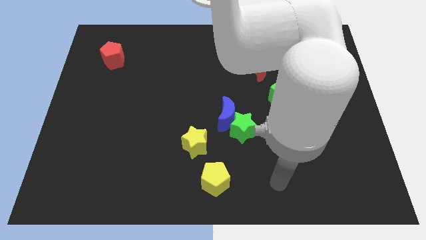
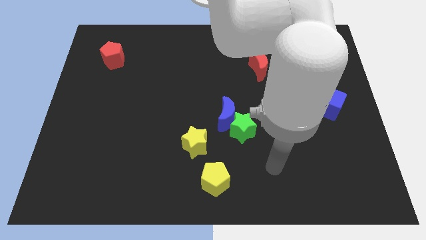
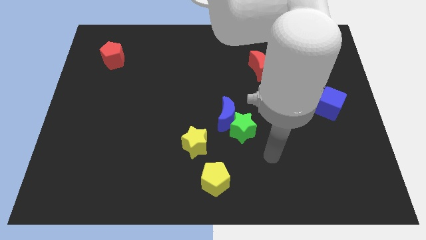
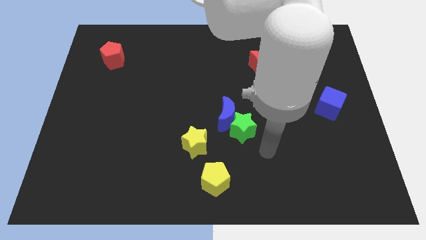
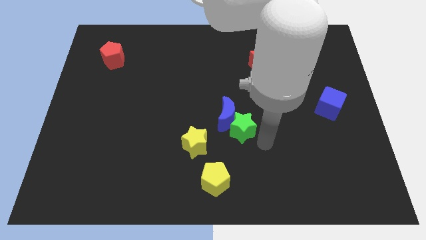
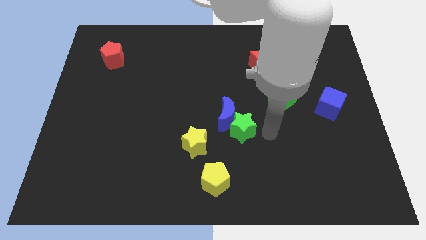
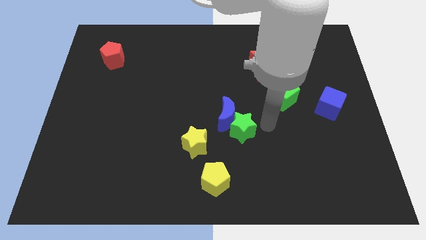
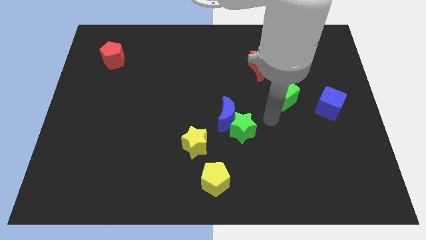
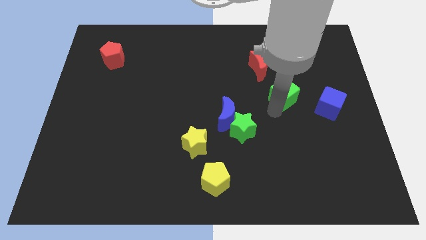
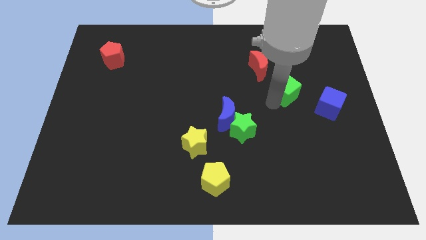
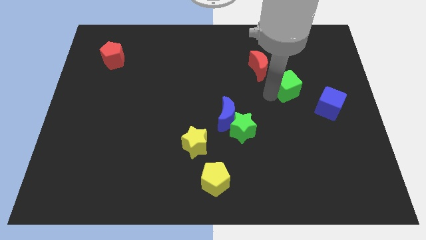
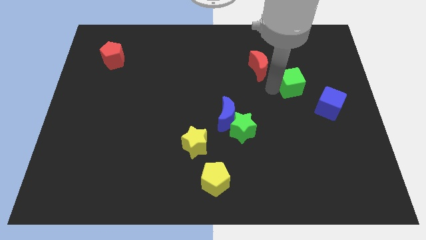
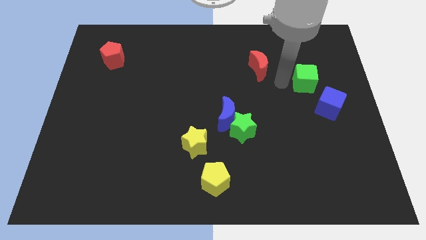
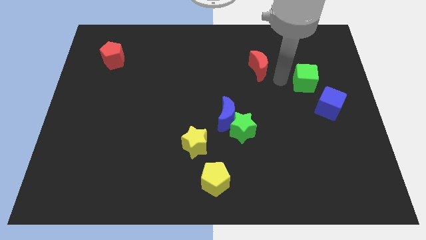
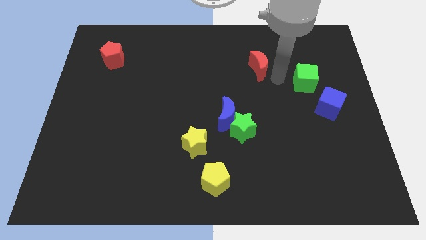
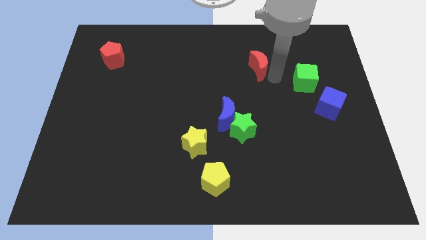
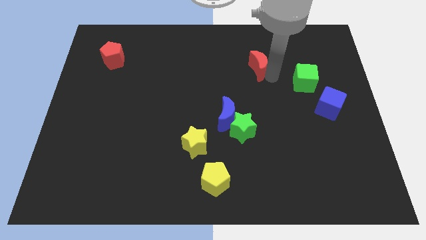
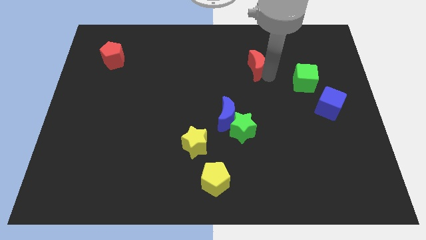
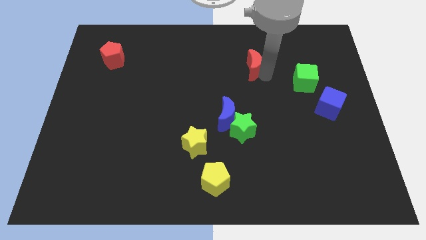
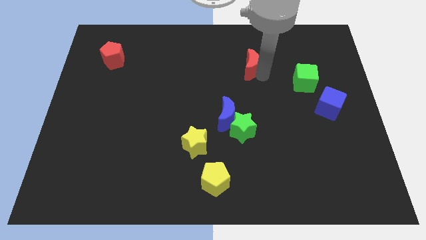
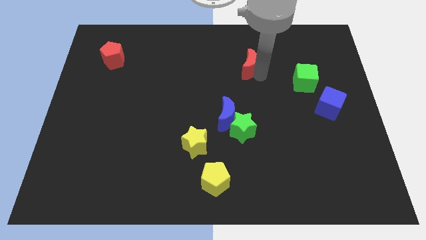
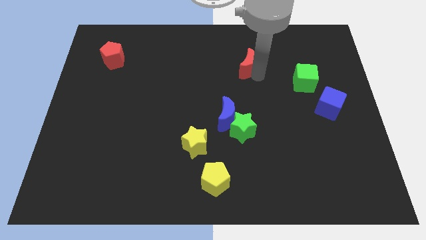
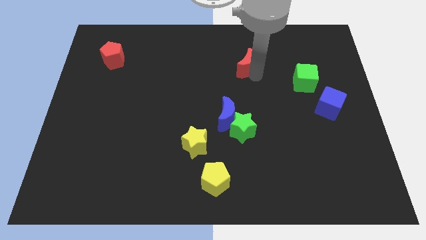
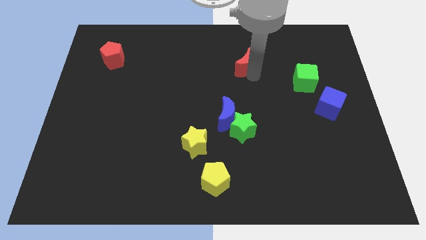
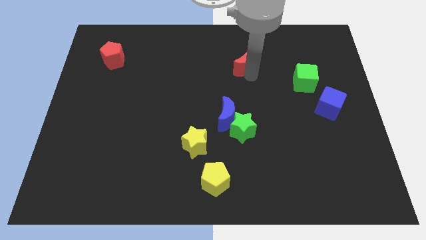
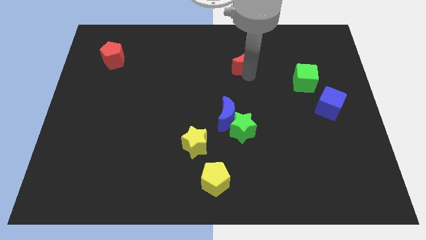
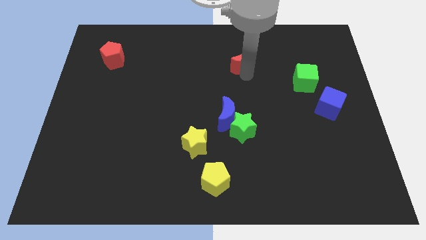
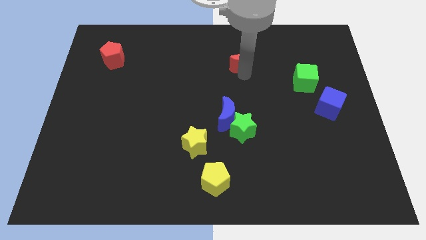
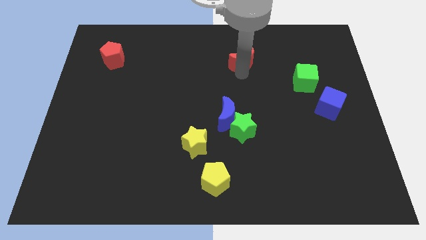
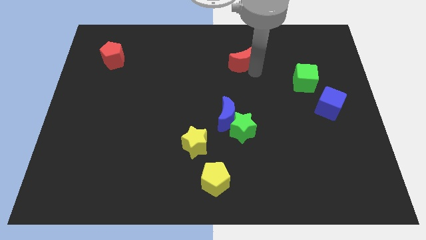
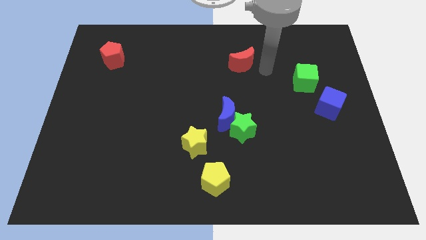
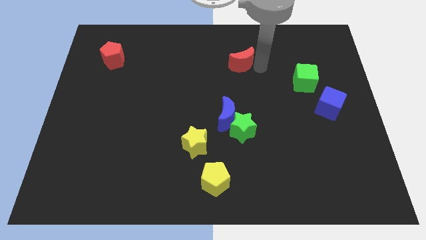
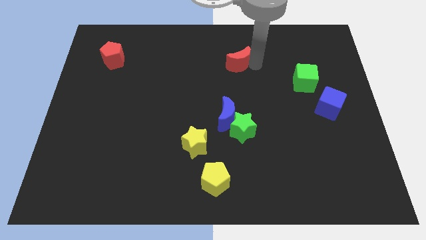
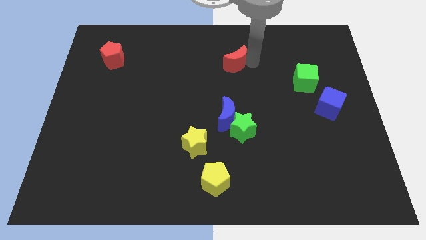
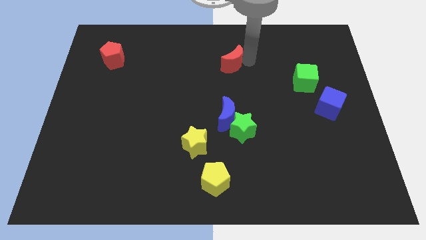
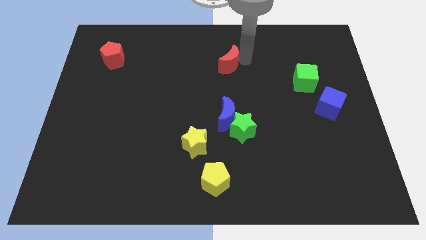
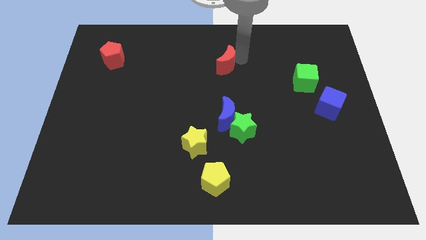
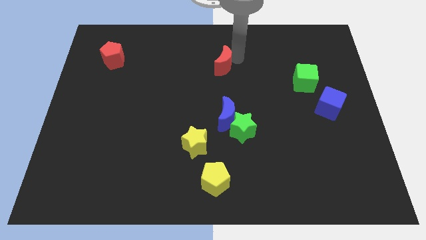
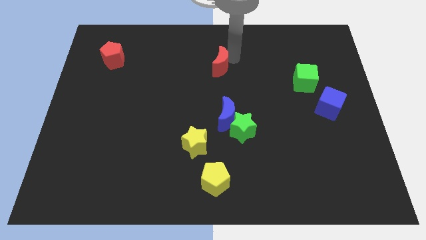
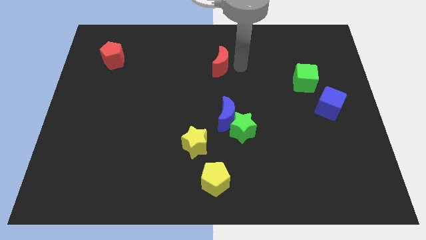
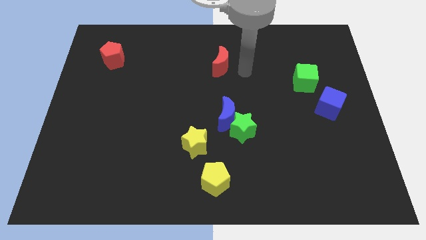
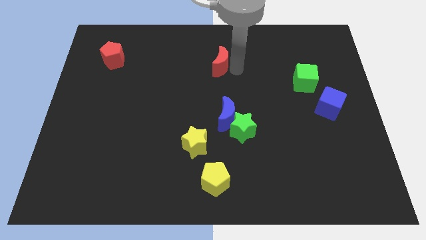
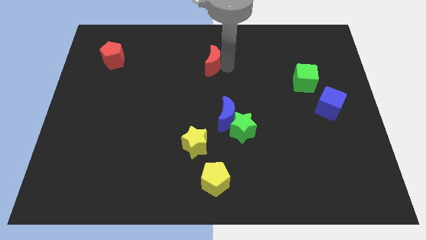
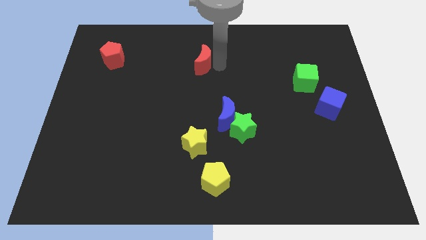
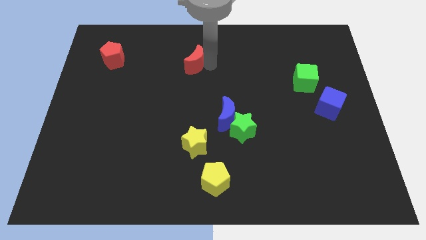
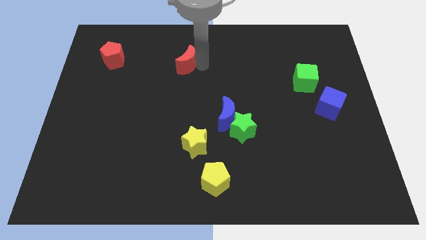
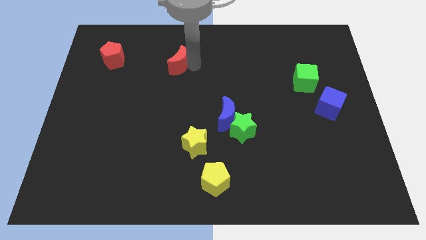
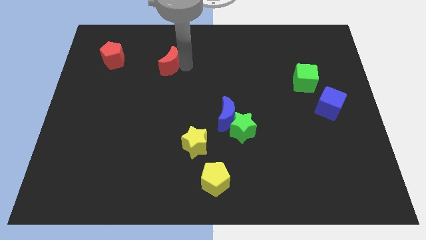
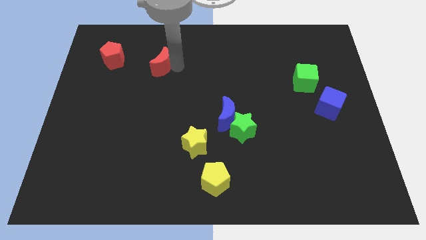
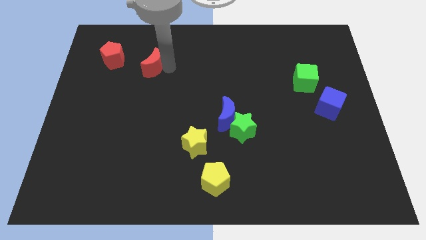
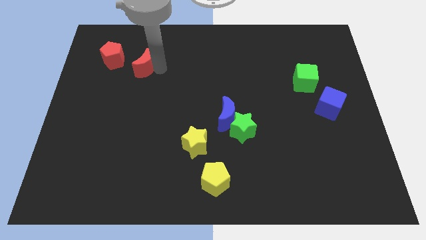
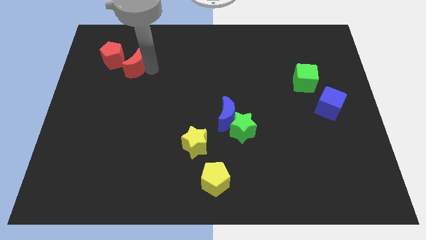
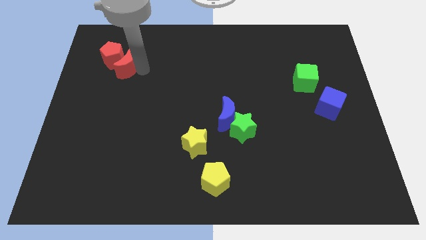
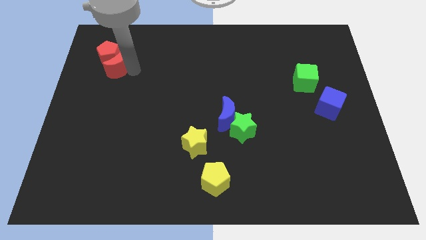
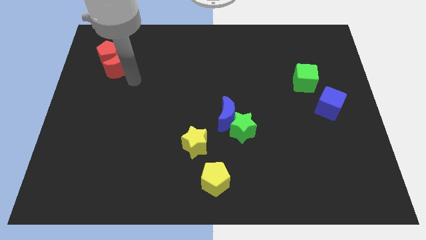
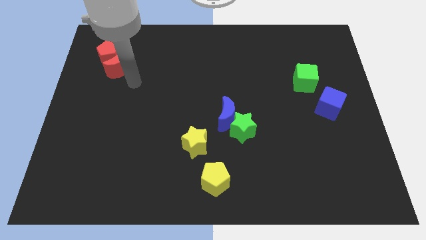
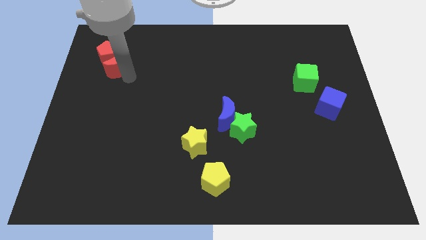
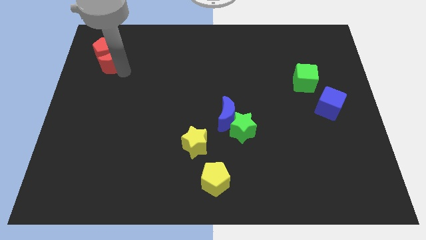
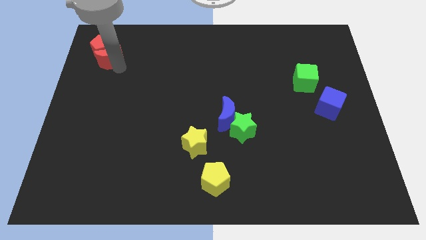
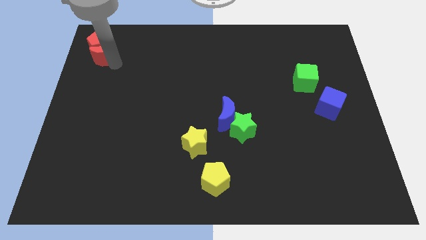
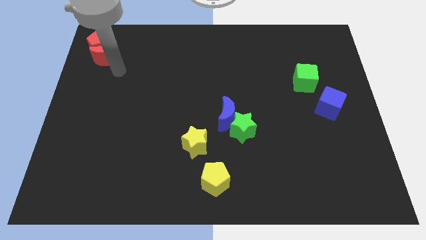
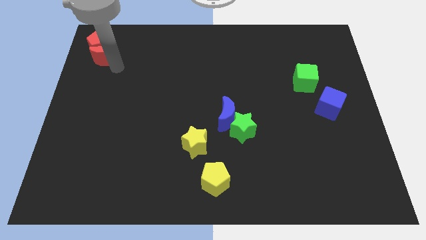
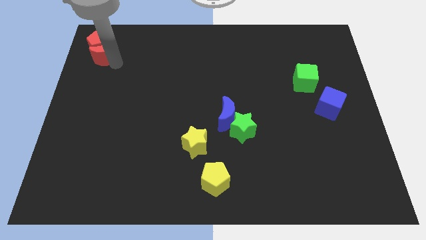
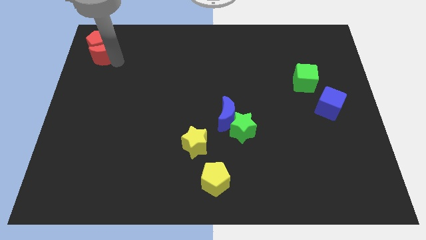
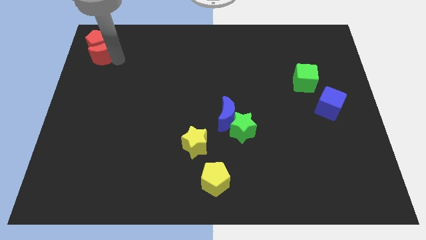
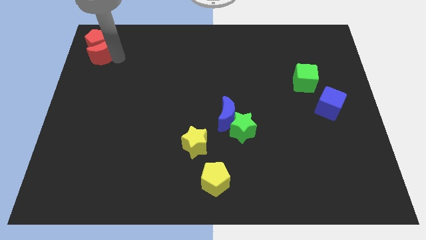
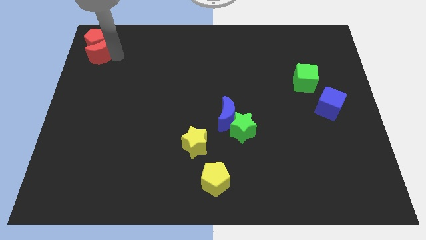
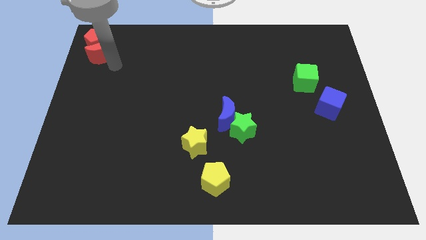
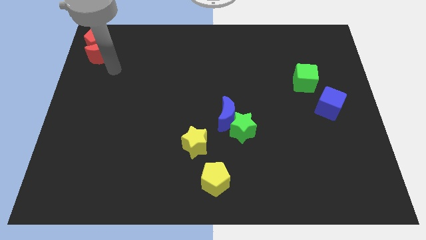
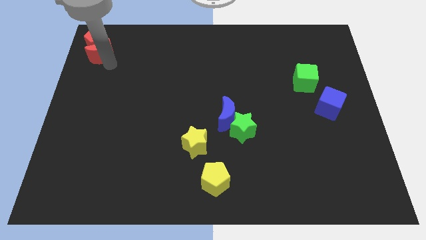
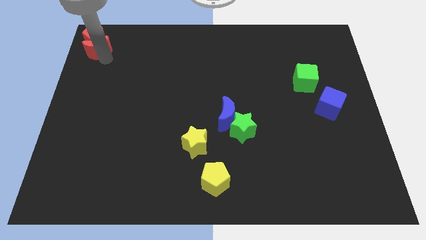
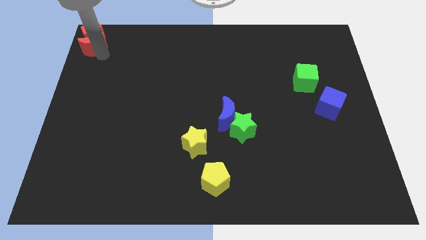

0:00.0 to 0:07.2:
slide the red moon to the top left of the board

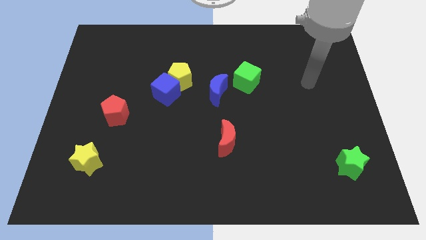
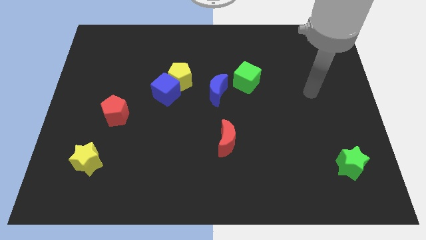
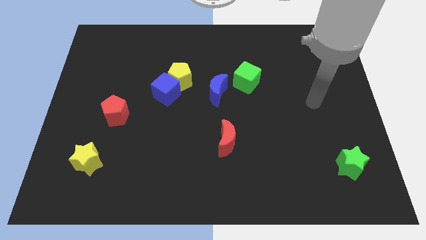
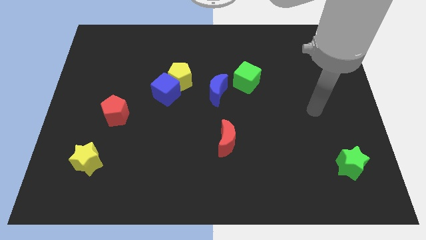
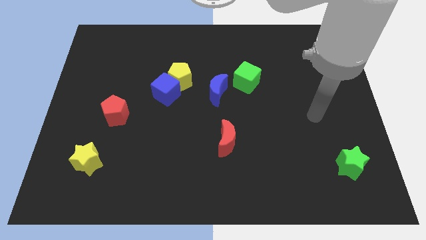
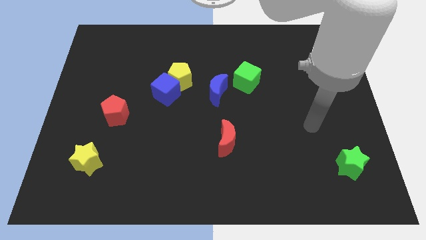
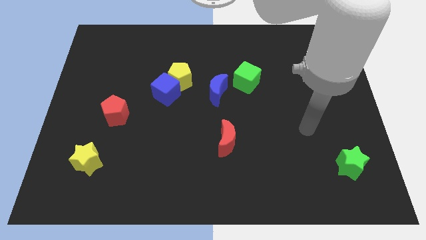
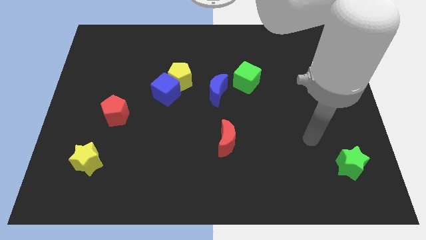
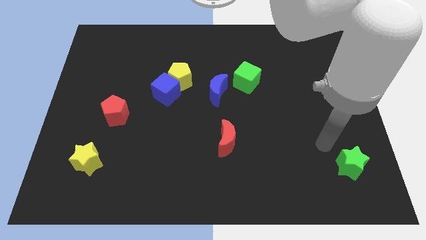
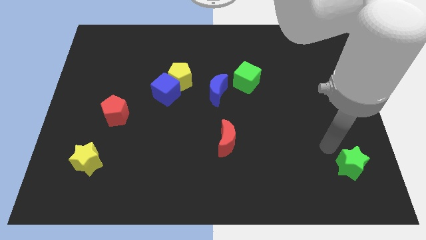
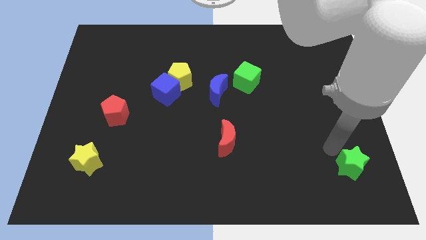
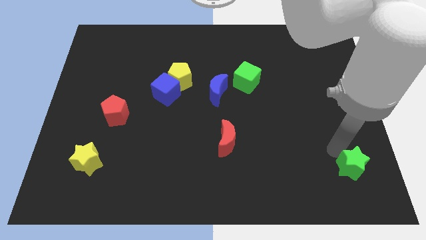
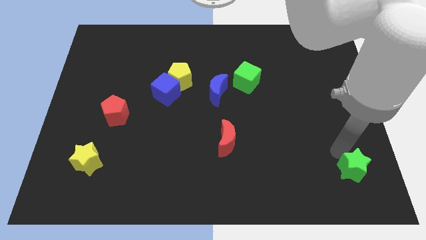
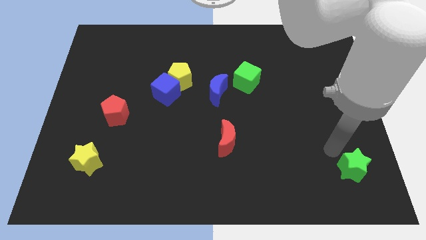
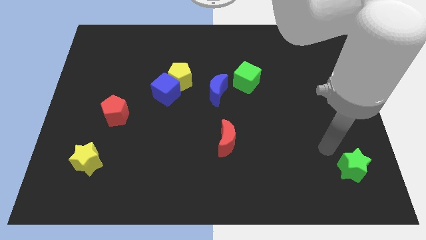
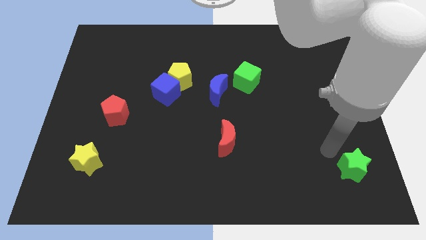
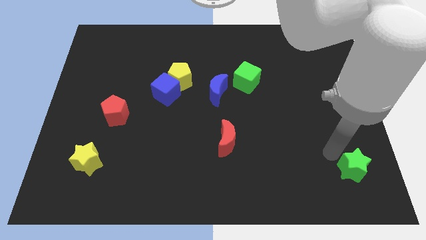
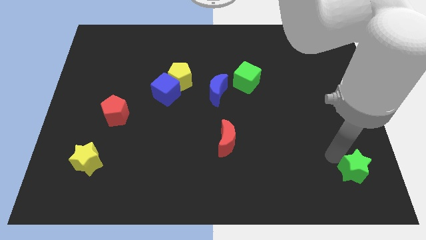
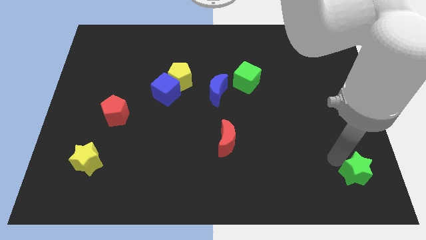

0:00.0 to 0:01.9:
slide the green star to the bottom right corner
